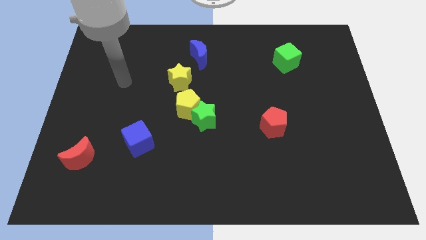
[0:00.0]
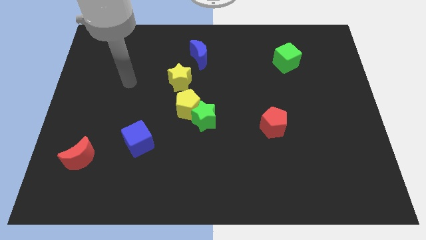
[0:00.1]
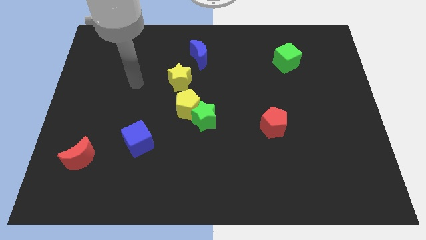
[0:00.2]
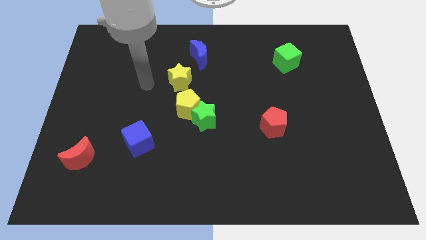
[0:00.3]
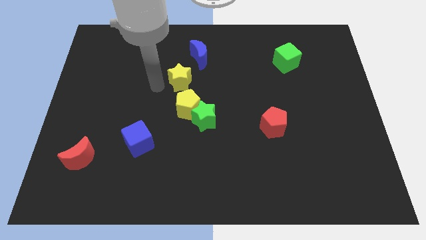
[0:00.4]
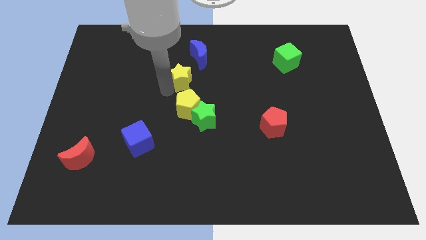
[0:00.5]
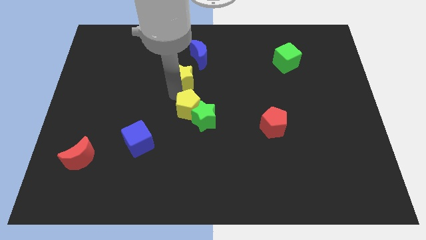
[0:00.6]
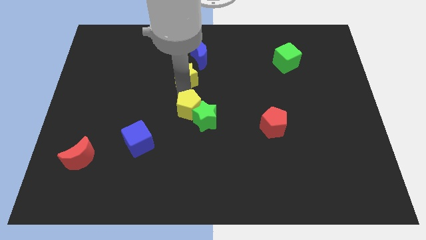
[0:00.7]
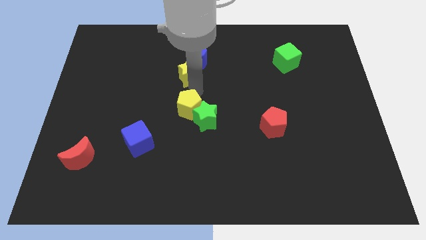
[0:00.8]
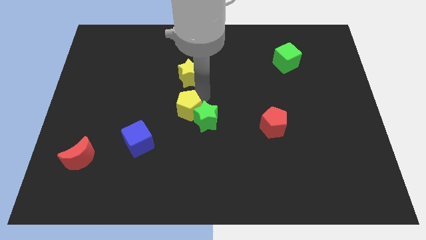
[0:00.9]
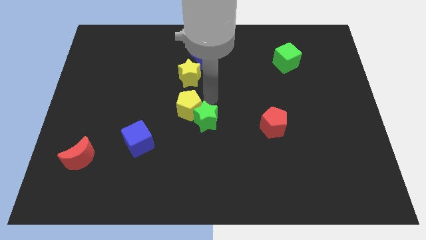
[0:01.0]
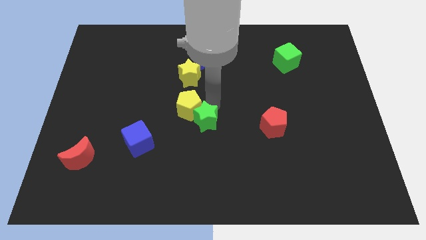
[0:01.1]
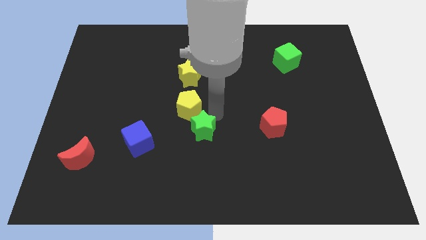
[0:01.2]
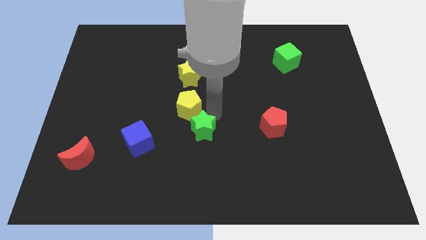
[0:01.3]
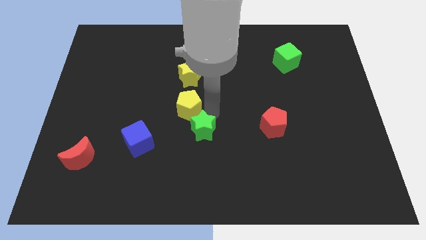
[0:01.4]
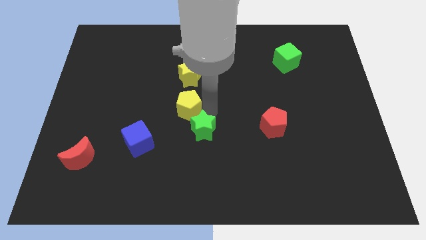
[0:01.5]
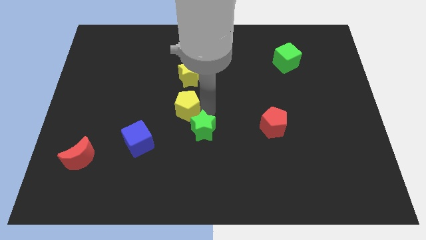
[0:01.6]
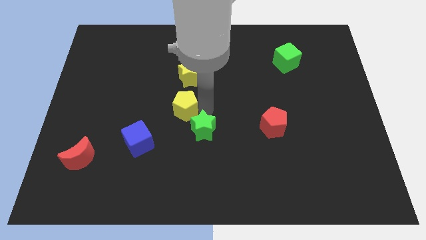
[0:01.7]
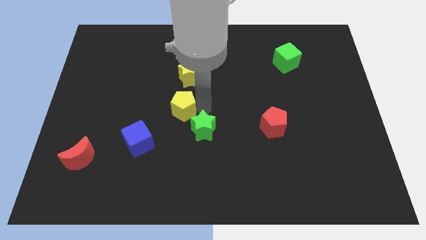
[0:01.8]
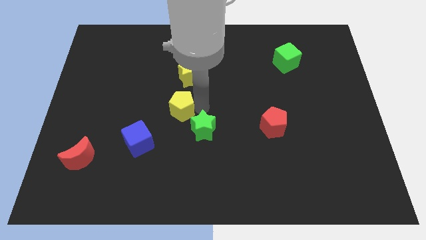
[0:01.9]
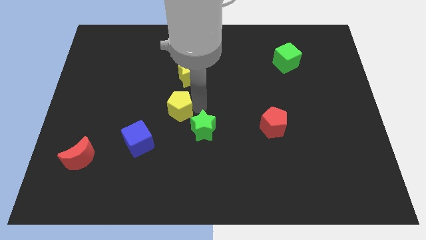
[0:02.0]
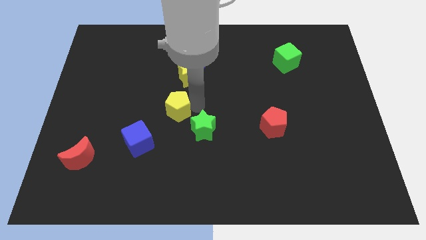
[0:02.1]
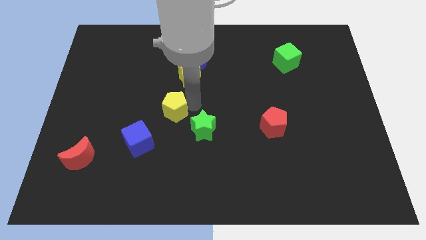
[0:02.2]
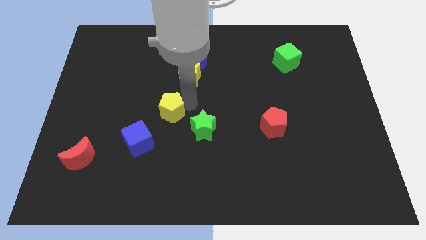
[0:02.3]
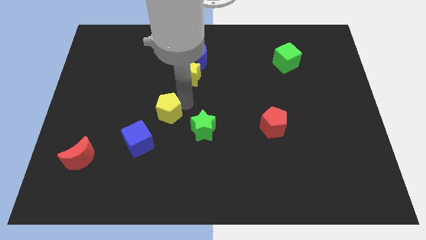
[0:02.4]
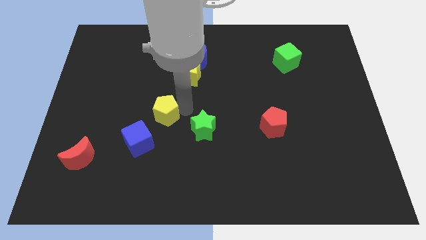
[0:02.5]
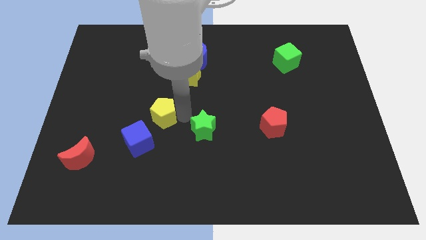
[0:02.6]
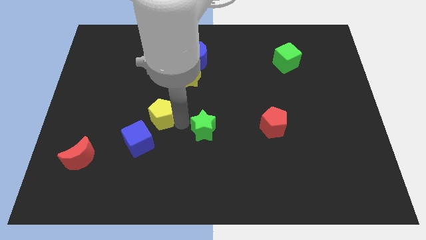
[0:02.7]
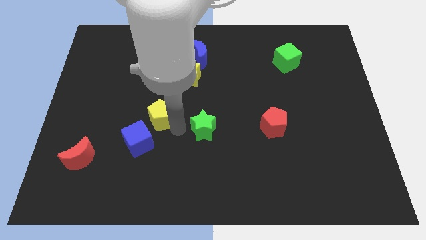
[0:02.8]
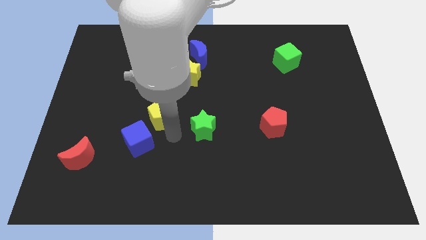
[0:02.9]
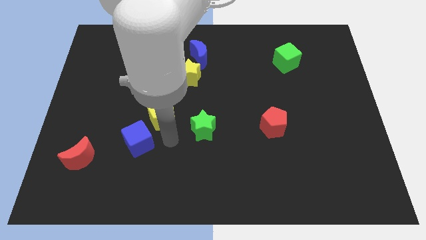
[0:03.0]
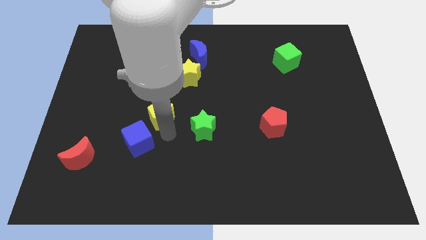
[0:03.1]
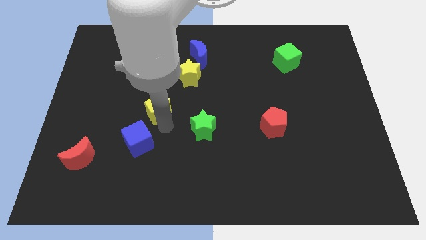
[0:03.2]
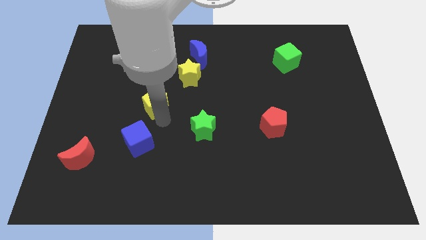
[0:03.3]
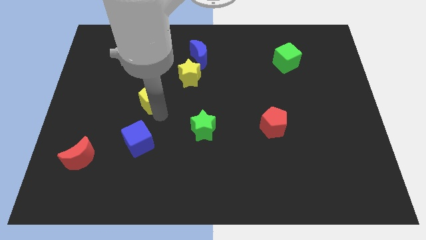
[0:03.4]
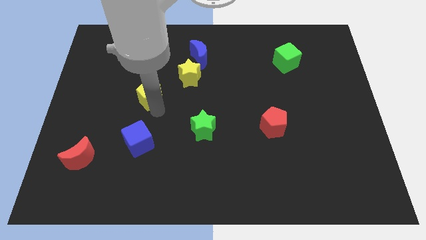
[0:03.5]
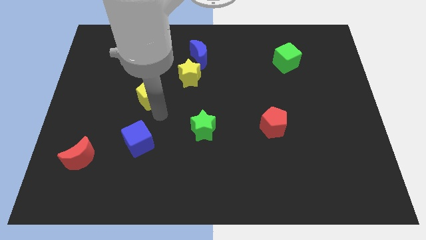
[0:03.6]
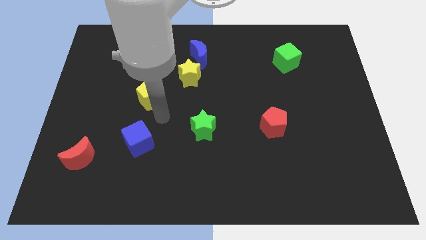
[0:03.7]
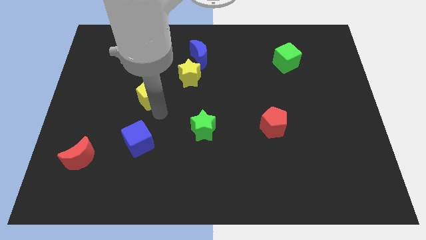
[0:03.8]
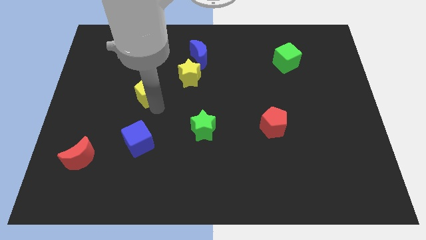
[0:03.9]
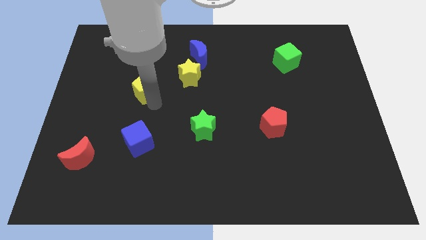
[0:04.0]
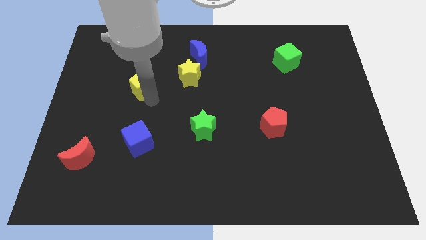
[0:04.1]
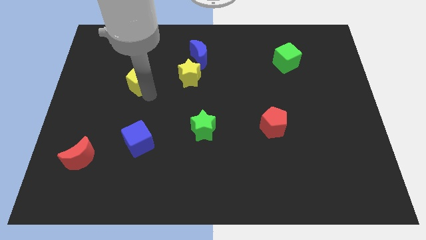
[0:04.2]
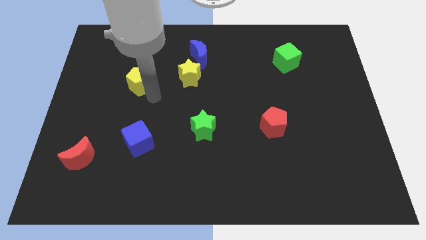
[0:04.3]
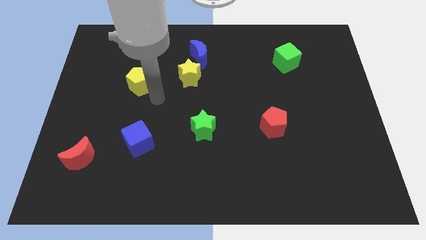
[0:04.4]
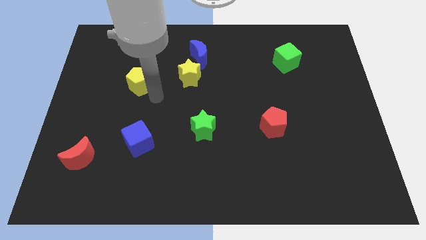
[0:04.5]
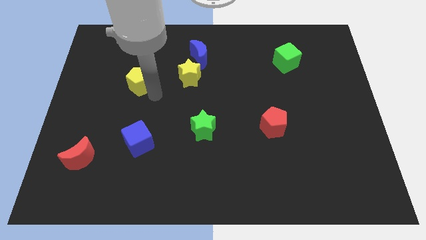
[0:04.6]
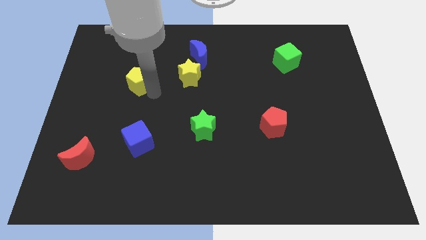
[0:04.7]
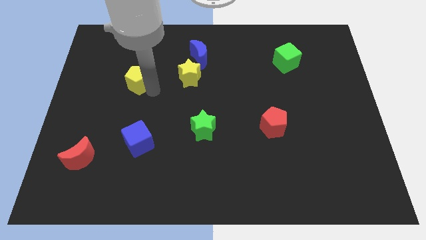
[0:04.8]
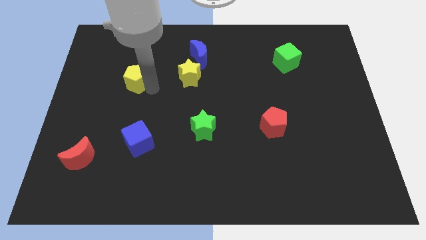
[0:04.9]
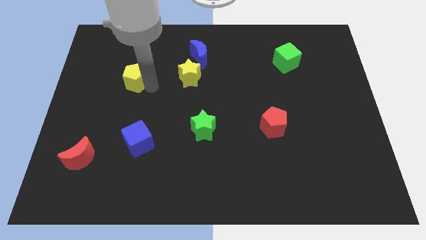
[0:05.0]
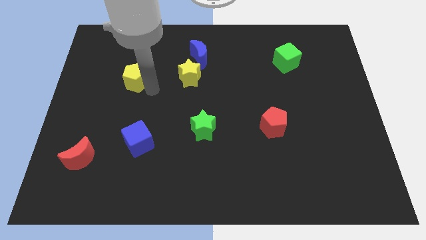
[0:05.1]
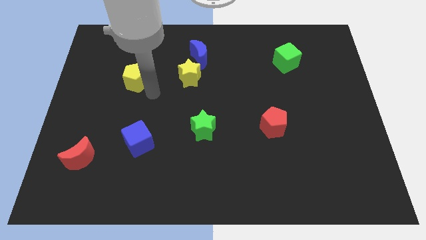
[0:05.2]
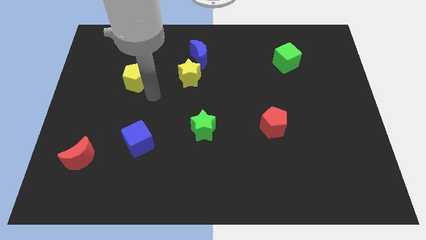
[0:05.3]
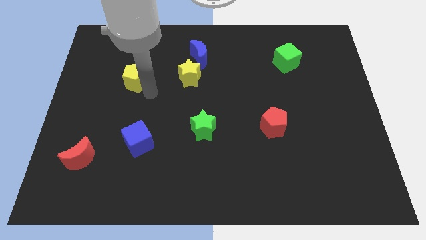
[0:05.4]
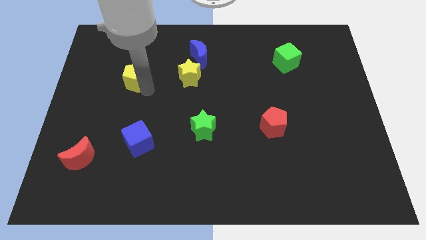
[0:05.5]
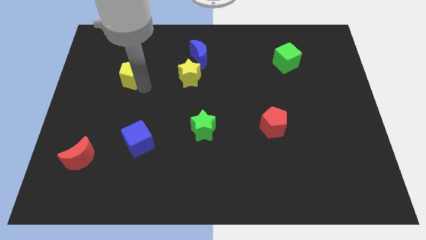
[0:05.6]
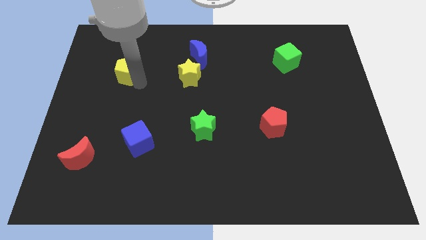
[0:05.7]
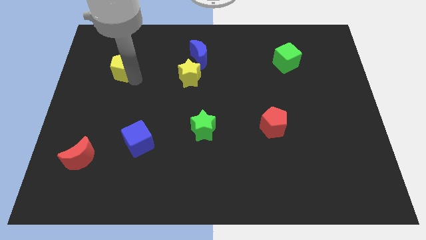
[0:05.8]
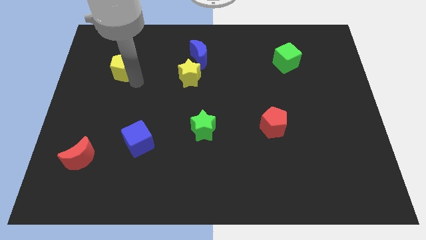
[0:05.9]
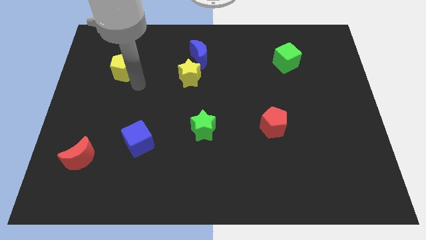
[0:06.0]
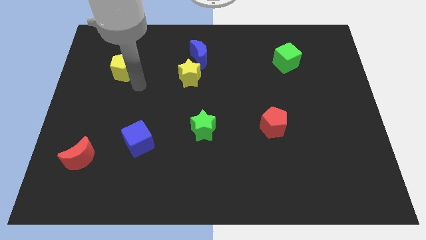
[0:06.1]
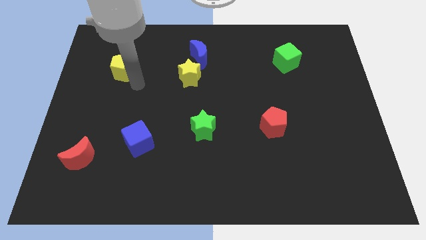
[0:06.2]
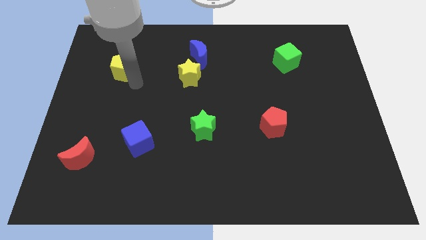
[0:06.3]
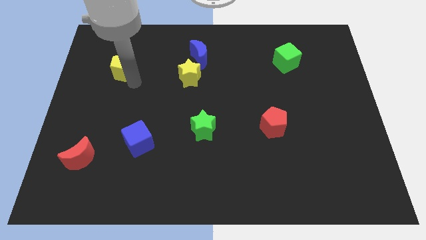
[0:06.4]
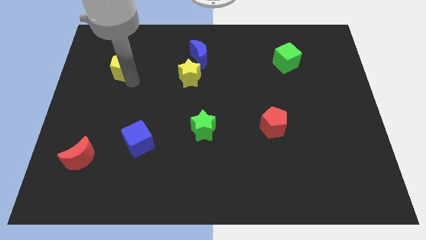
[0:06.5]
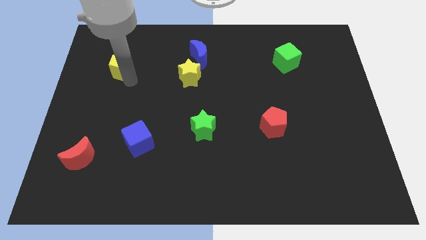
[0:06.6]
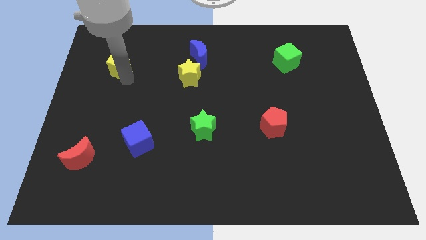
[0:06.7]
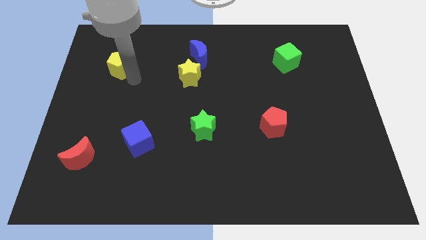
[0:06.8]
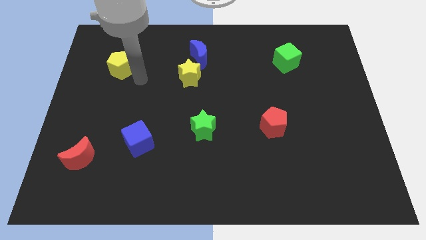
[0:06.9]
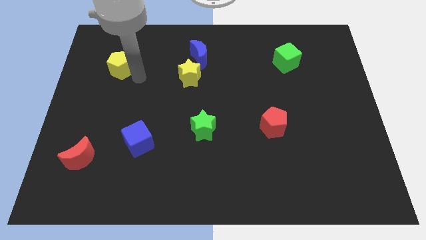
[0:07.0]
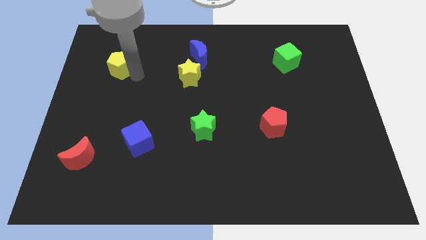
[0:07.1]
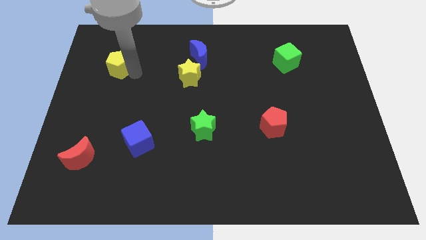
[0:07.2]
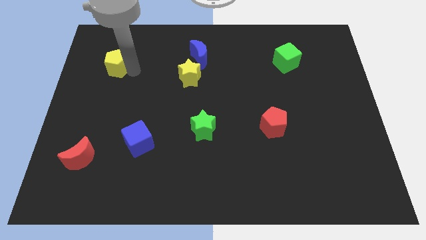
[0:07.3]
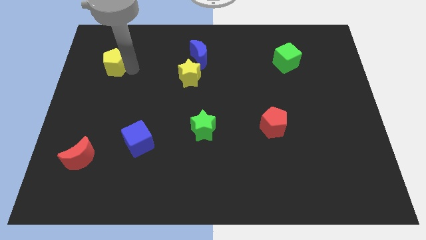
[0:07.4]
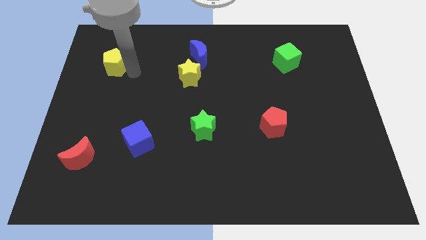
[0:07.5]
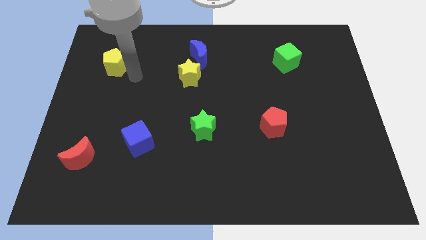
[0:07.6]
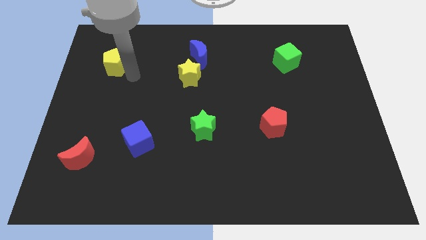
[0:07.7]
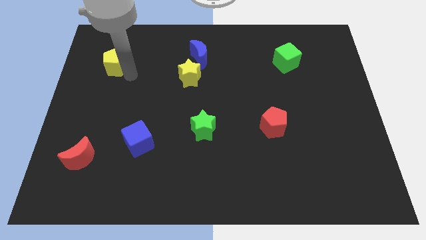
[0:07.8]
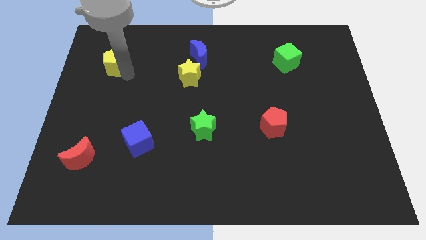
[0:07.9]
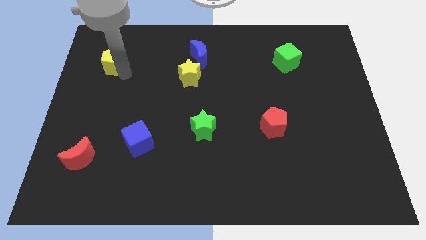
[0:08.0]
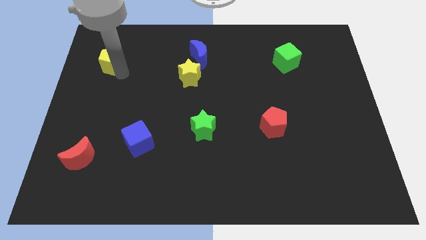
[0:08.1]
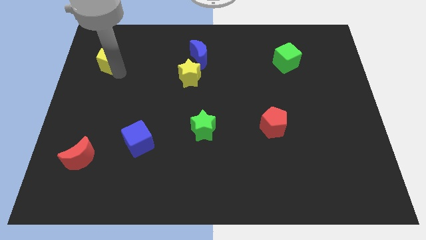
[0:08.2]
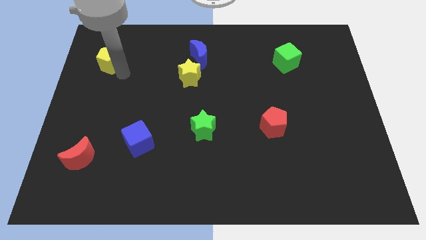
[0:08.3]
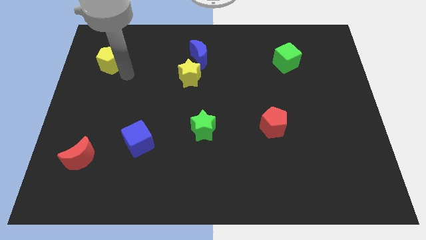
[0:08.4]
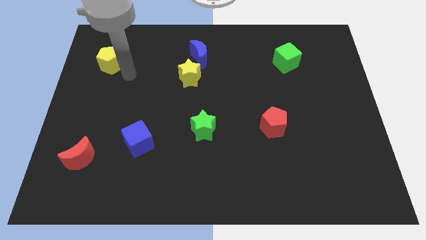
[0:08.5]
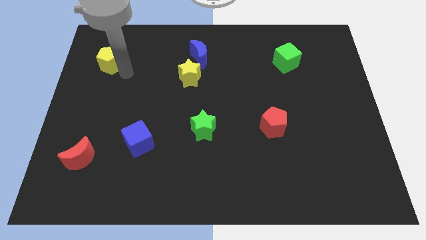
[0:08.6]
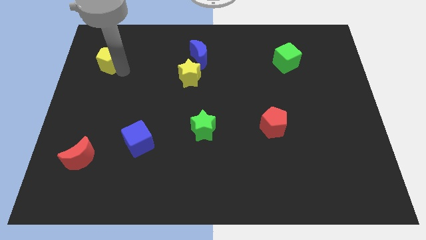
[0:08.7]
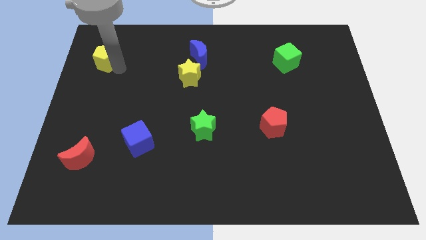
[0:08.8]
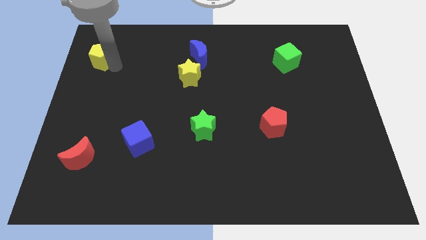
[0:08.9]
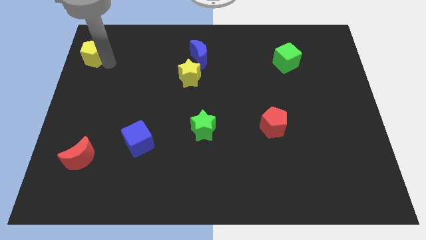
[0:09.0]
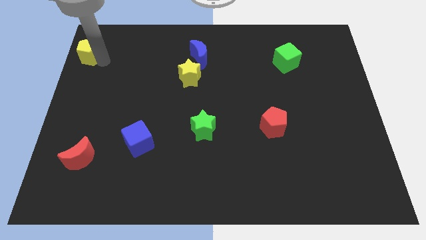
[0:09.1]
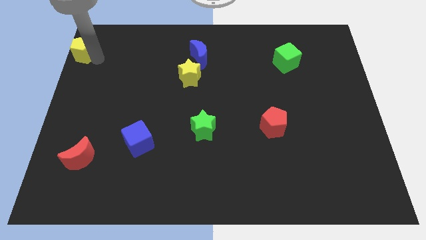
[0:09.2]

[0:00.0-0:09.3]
push the yellow pentagon to the top left corner
